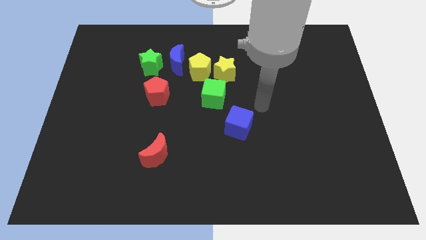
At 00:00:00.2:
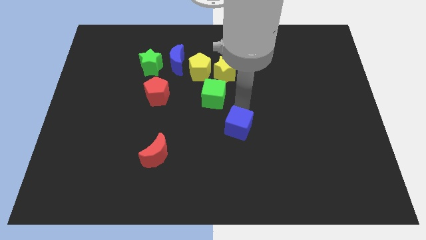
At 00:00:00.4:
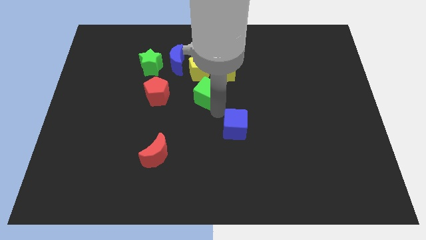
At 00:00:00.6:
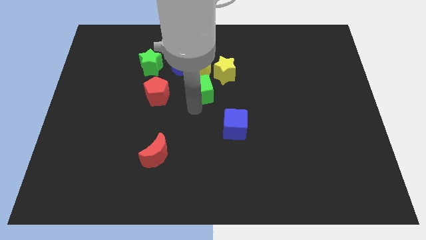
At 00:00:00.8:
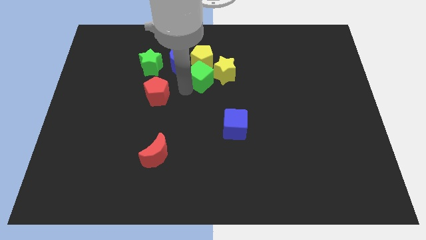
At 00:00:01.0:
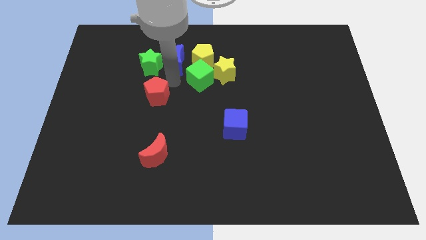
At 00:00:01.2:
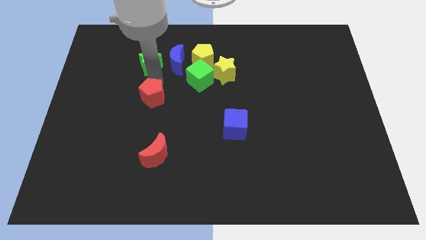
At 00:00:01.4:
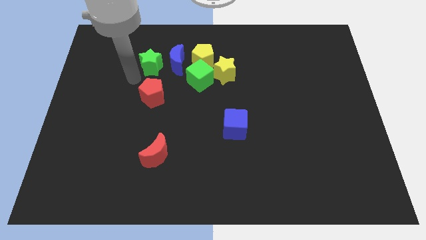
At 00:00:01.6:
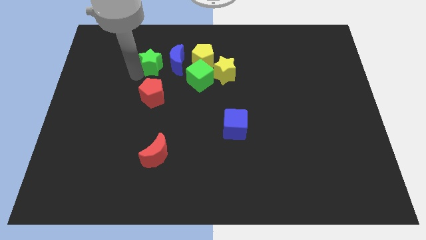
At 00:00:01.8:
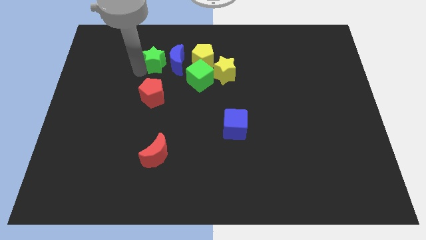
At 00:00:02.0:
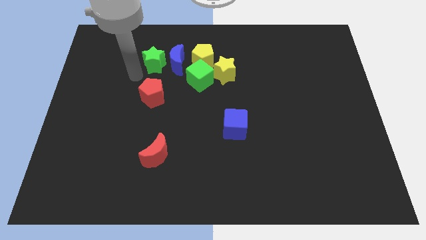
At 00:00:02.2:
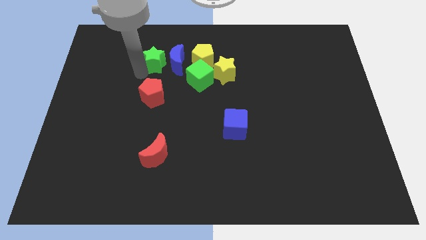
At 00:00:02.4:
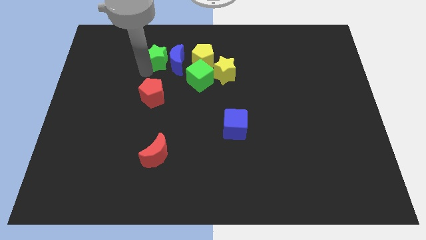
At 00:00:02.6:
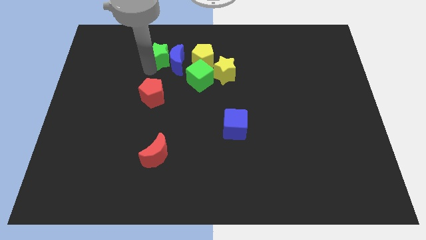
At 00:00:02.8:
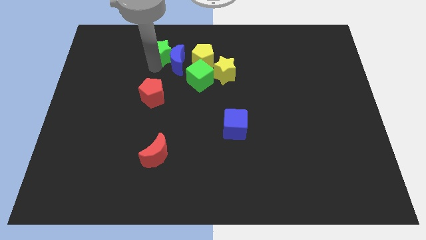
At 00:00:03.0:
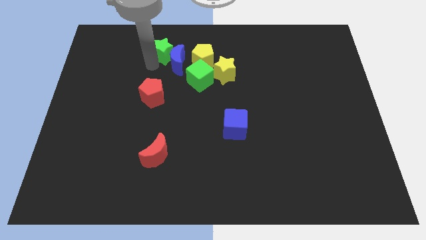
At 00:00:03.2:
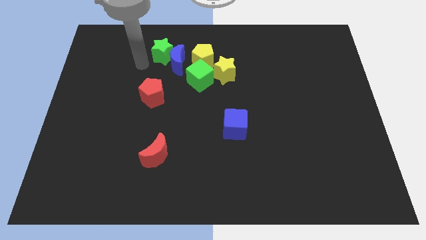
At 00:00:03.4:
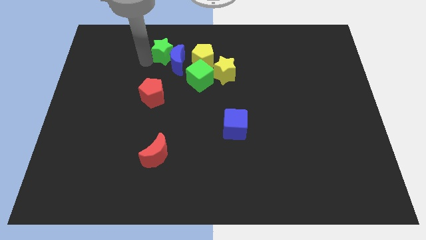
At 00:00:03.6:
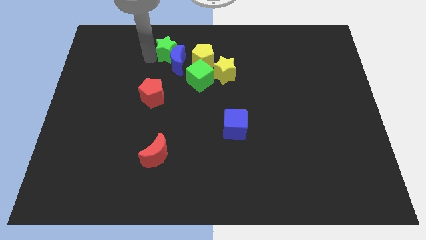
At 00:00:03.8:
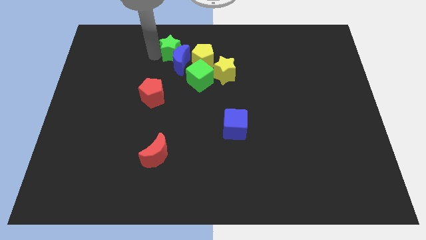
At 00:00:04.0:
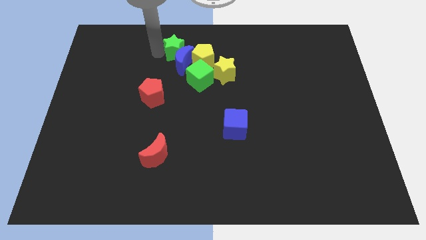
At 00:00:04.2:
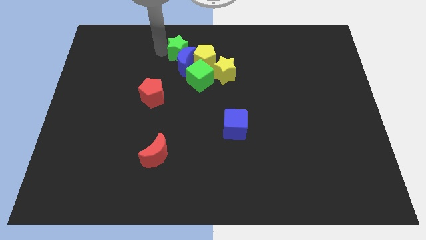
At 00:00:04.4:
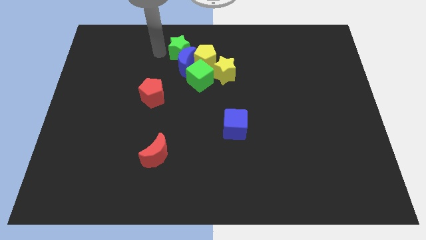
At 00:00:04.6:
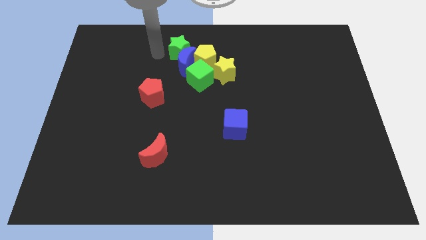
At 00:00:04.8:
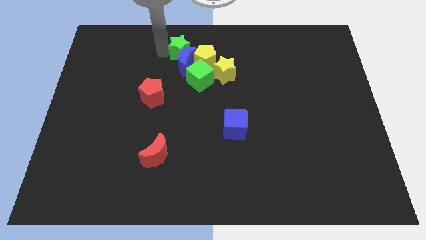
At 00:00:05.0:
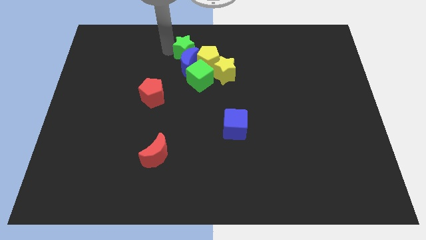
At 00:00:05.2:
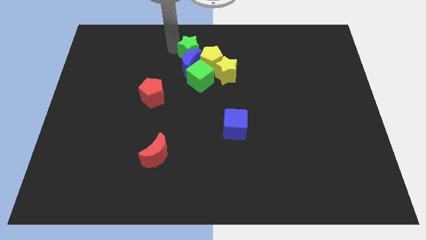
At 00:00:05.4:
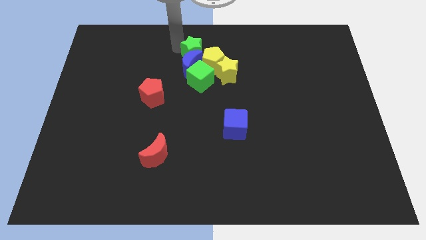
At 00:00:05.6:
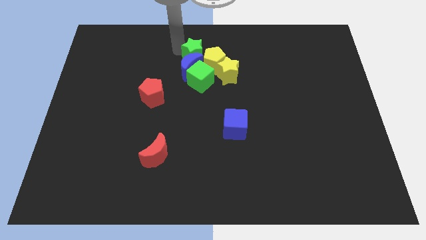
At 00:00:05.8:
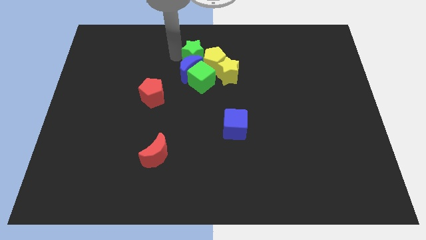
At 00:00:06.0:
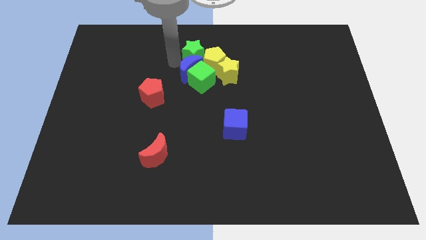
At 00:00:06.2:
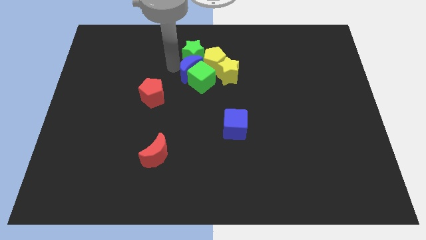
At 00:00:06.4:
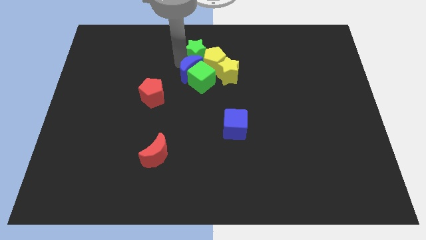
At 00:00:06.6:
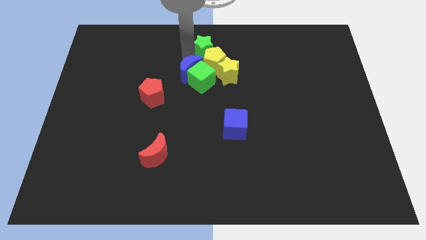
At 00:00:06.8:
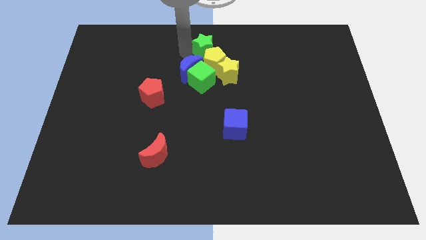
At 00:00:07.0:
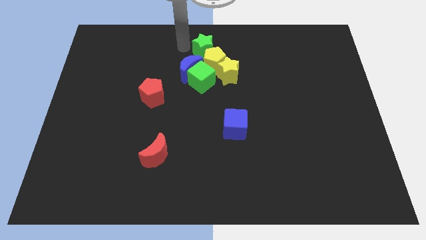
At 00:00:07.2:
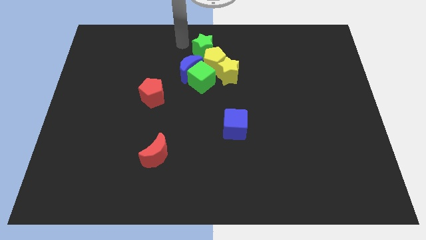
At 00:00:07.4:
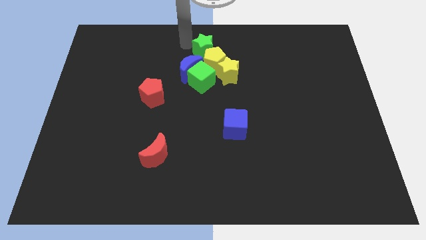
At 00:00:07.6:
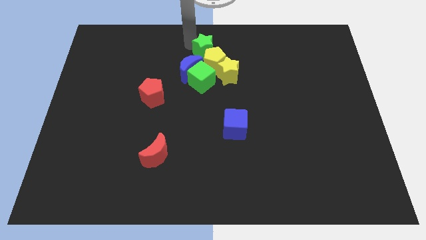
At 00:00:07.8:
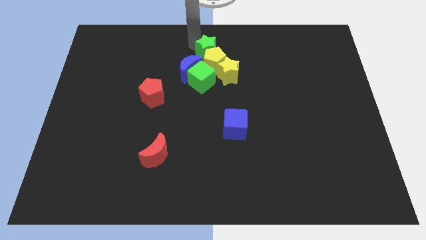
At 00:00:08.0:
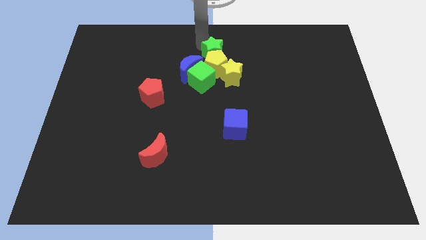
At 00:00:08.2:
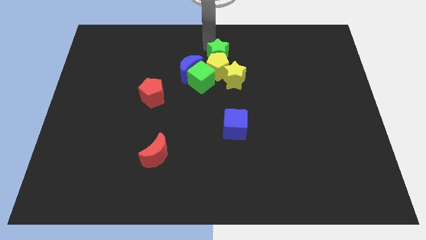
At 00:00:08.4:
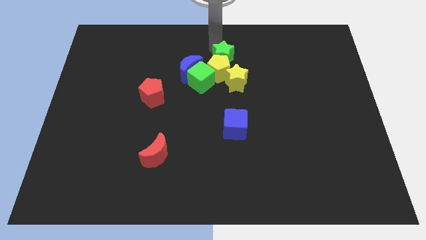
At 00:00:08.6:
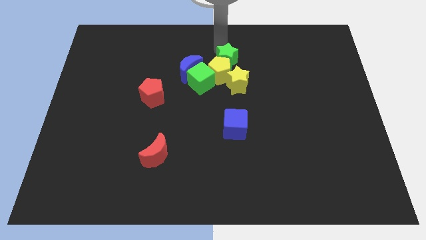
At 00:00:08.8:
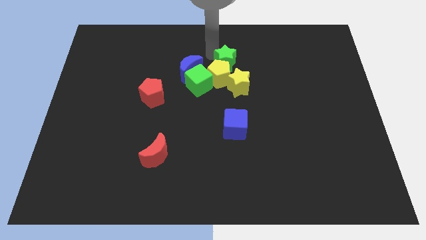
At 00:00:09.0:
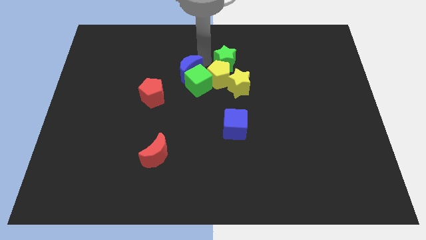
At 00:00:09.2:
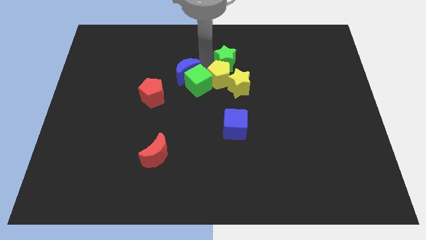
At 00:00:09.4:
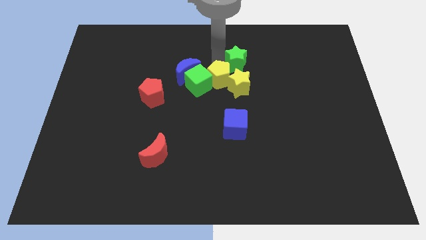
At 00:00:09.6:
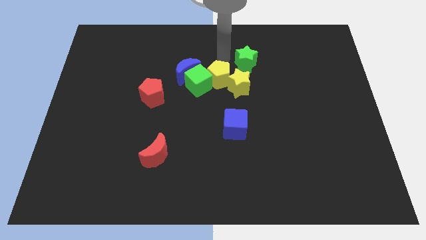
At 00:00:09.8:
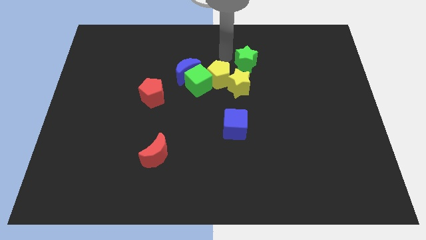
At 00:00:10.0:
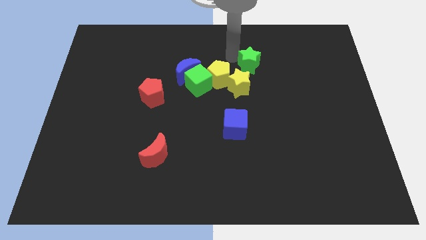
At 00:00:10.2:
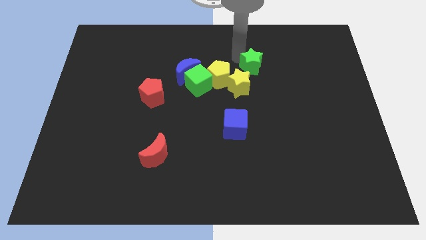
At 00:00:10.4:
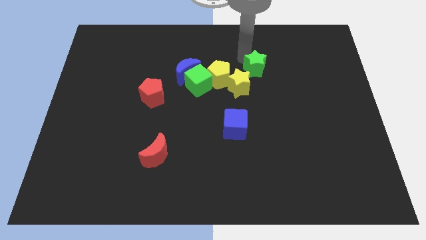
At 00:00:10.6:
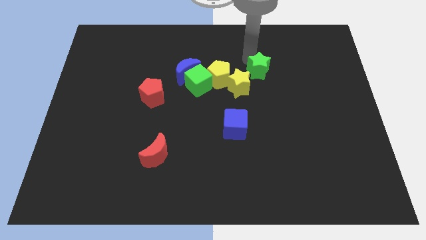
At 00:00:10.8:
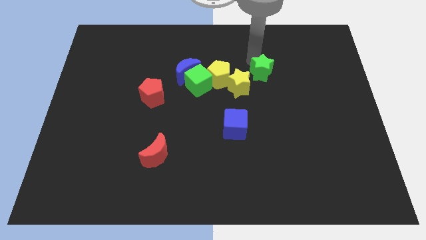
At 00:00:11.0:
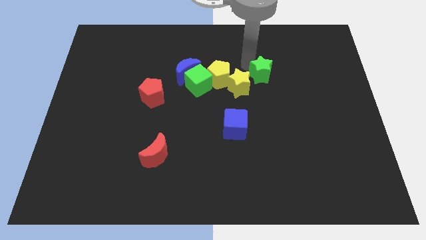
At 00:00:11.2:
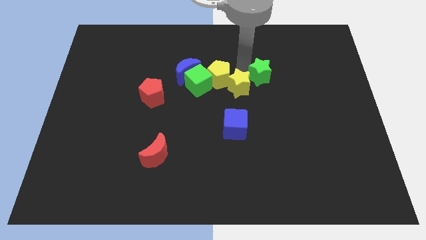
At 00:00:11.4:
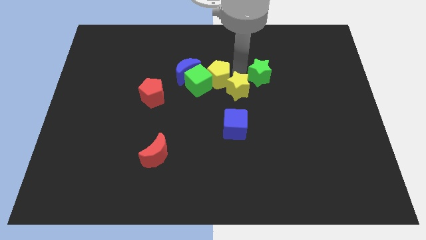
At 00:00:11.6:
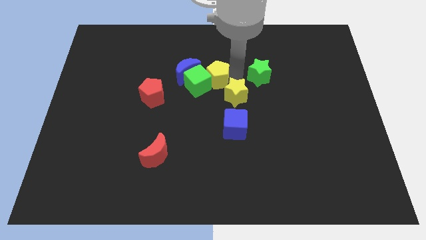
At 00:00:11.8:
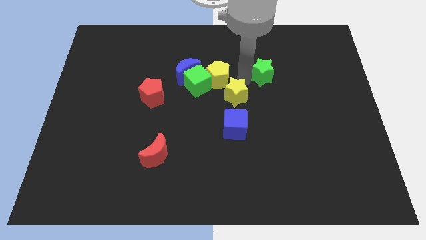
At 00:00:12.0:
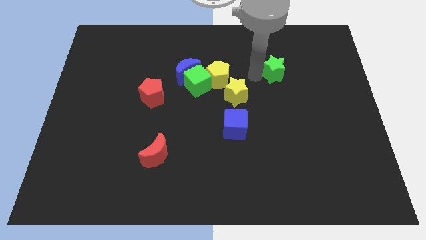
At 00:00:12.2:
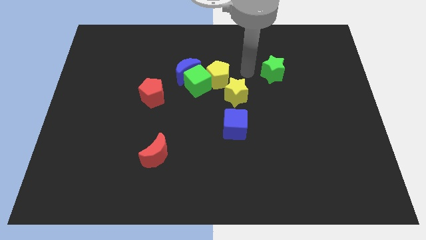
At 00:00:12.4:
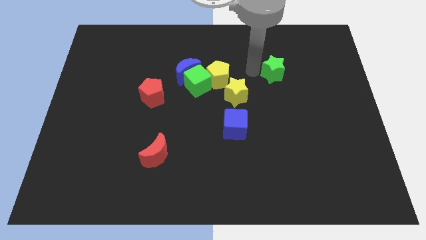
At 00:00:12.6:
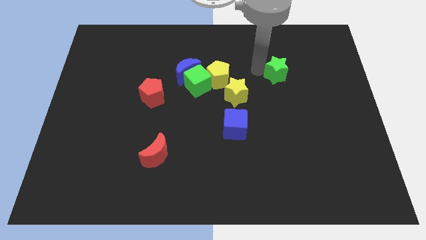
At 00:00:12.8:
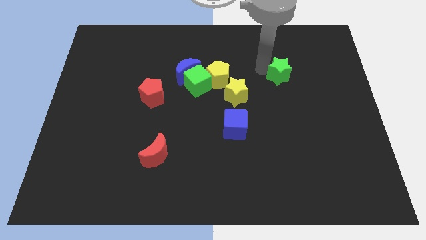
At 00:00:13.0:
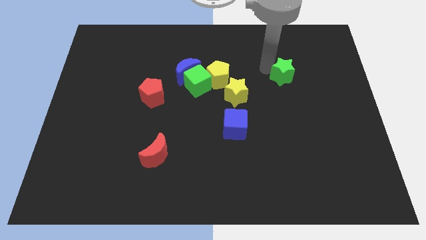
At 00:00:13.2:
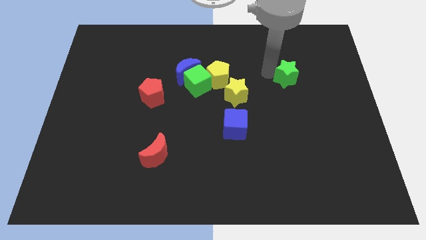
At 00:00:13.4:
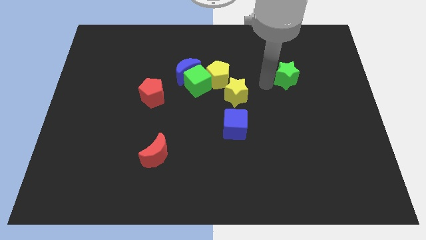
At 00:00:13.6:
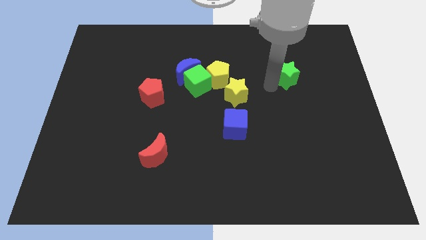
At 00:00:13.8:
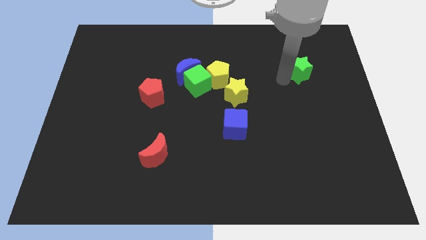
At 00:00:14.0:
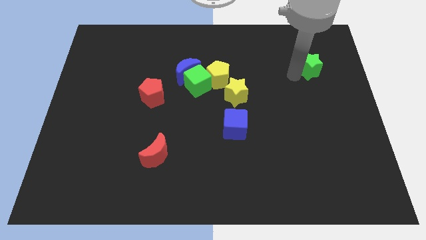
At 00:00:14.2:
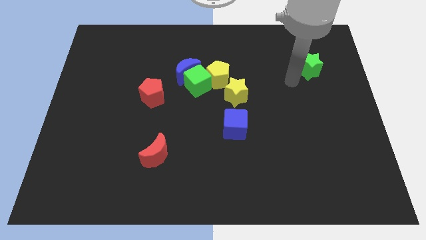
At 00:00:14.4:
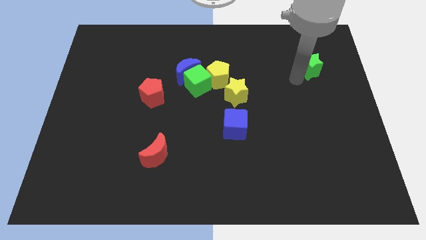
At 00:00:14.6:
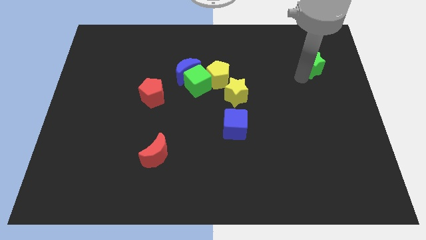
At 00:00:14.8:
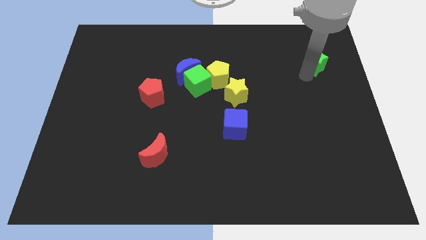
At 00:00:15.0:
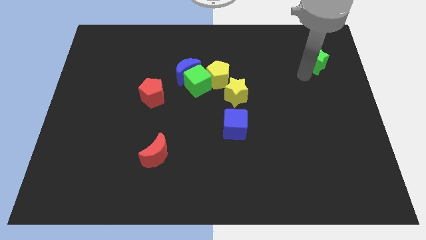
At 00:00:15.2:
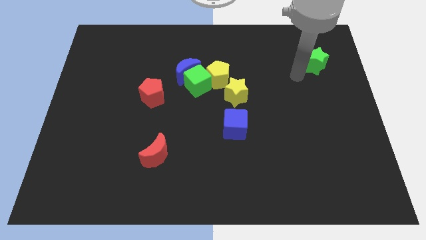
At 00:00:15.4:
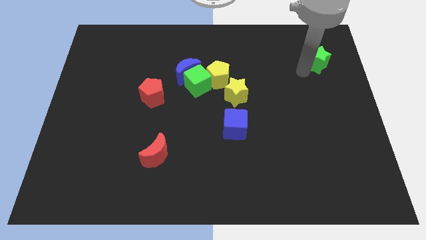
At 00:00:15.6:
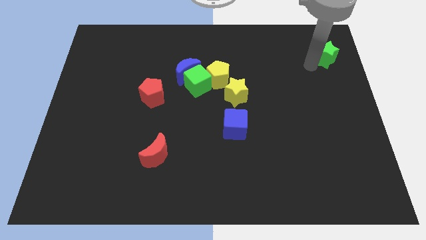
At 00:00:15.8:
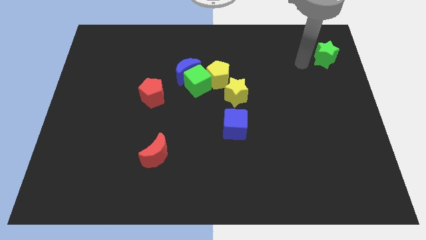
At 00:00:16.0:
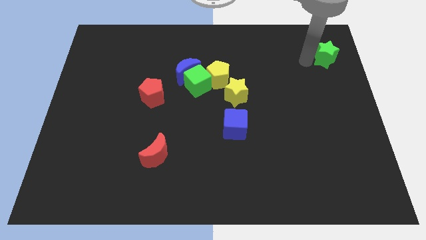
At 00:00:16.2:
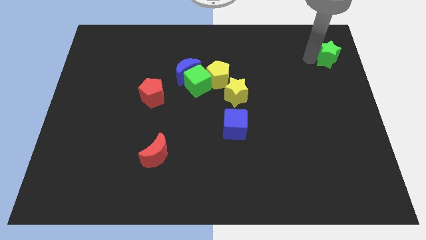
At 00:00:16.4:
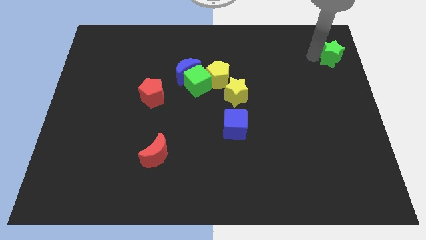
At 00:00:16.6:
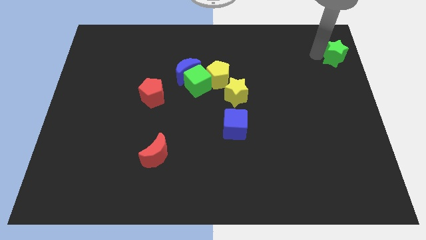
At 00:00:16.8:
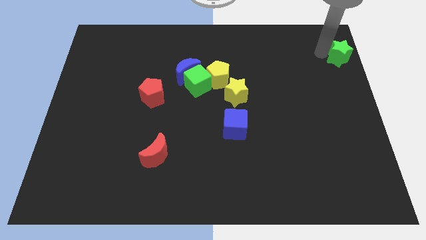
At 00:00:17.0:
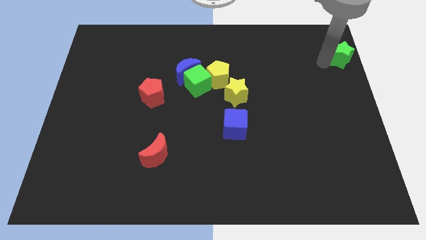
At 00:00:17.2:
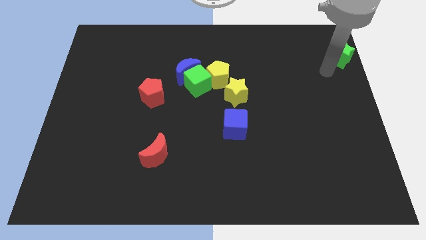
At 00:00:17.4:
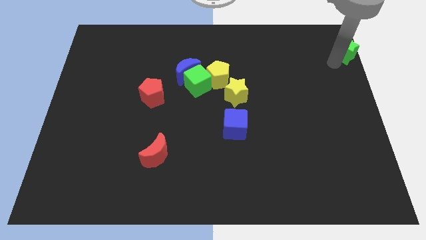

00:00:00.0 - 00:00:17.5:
move the green star to the upper right corner
